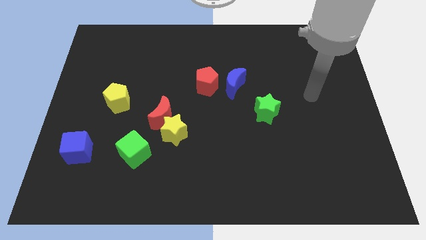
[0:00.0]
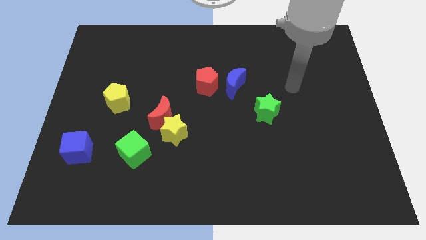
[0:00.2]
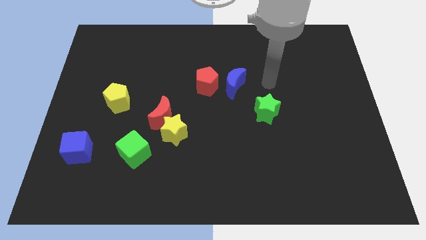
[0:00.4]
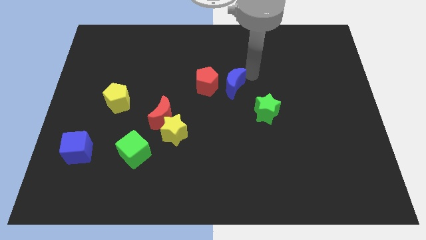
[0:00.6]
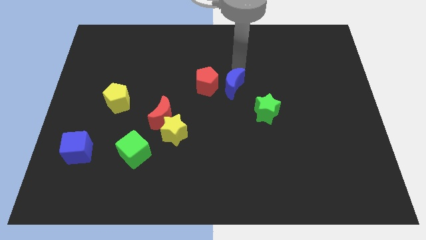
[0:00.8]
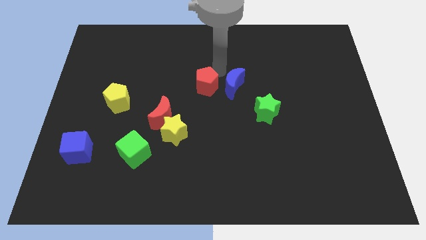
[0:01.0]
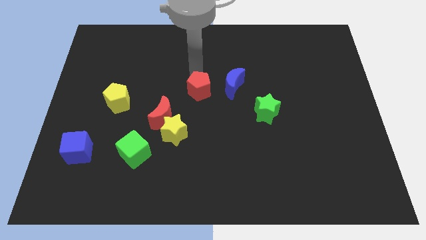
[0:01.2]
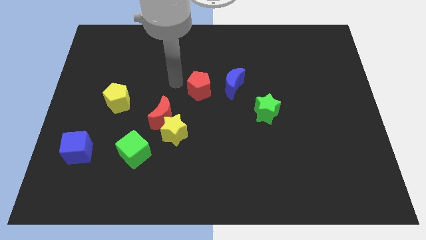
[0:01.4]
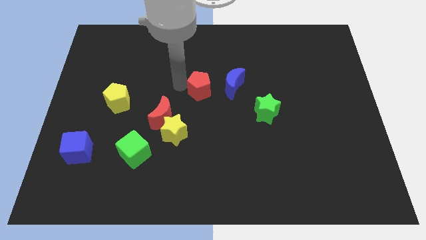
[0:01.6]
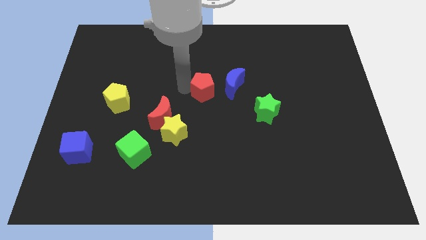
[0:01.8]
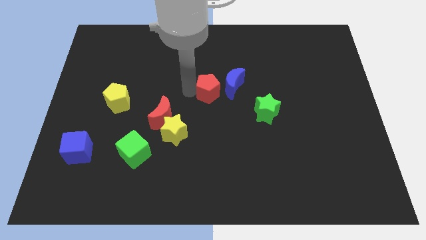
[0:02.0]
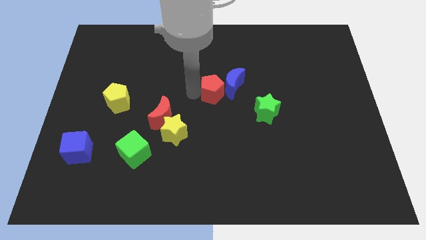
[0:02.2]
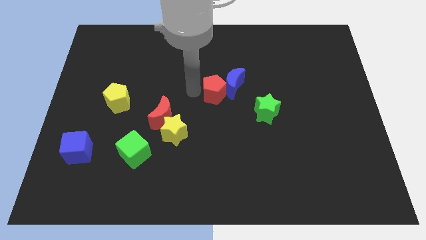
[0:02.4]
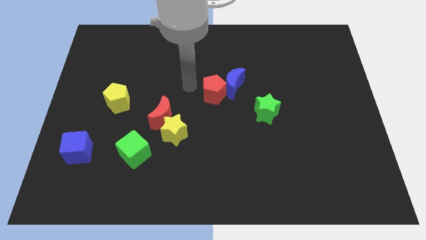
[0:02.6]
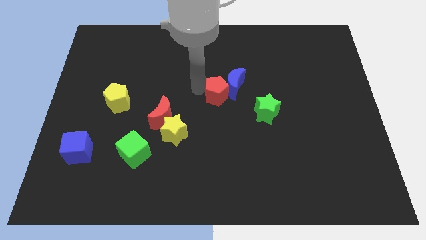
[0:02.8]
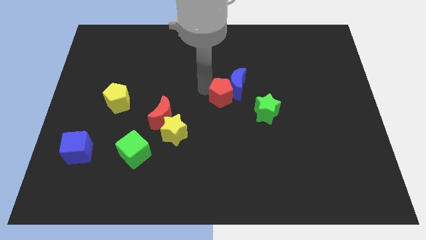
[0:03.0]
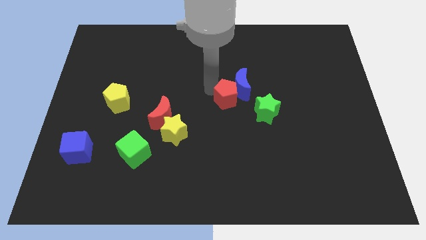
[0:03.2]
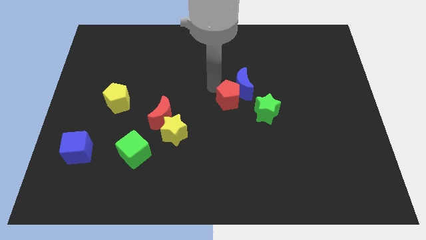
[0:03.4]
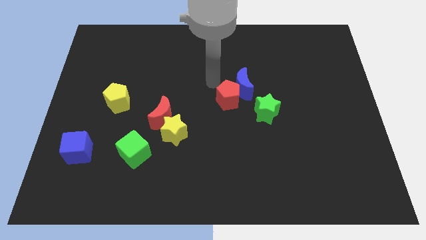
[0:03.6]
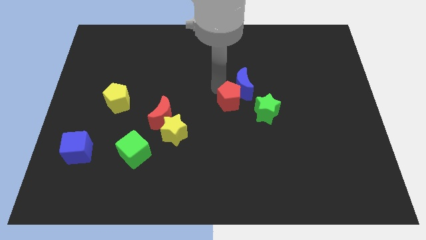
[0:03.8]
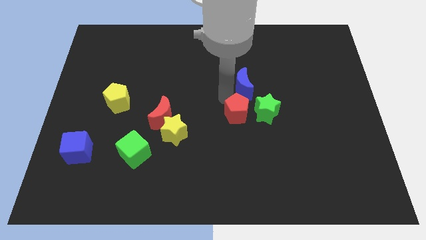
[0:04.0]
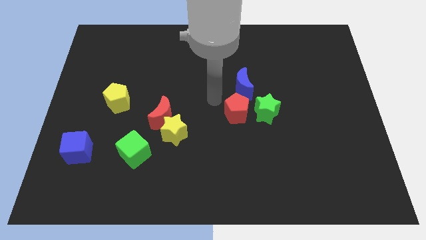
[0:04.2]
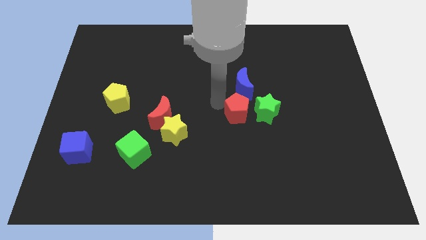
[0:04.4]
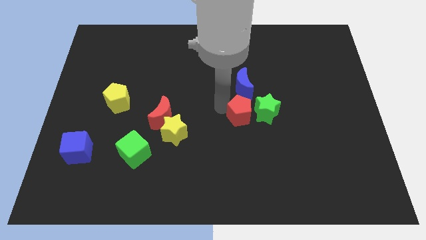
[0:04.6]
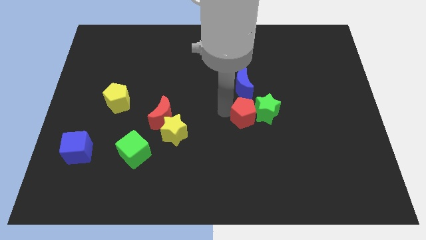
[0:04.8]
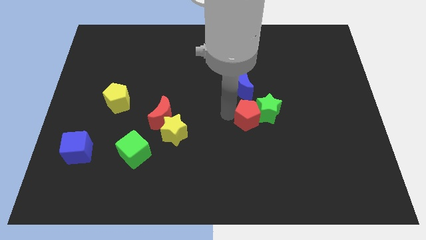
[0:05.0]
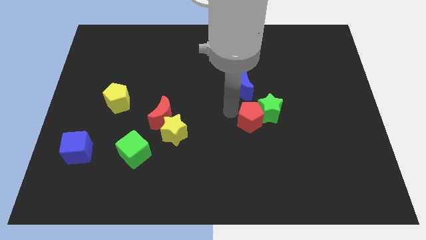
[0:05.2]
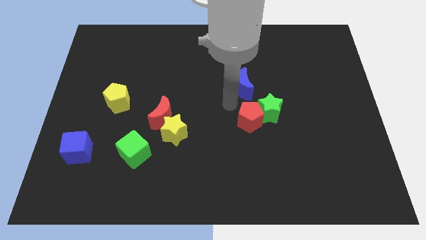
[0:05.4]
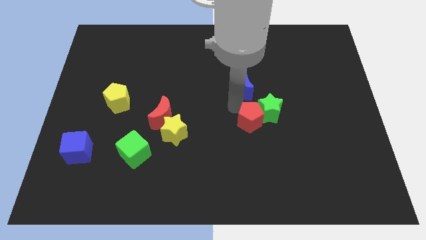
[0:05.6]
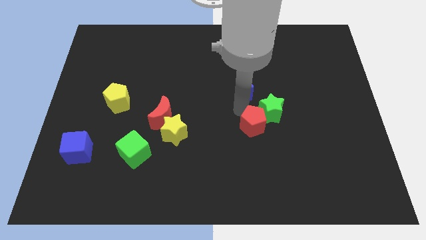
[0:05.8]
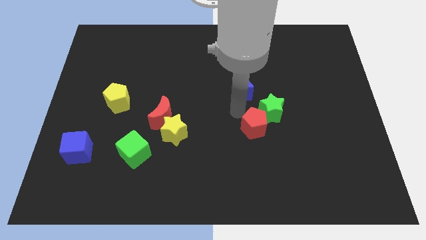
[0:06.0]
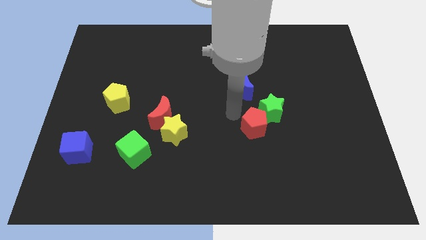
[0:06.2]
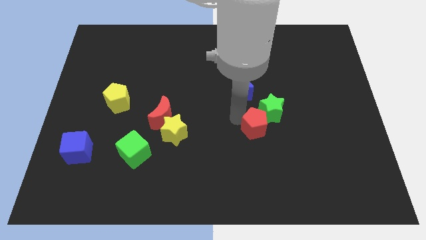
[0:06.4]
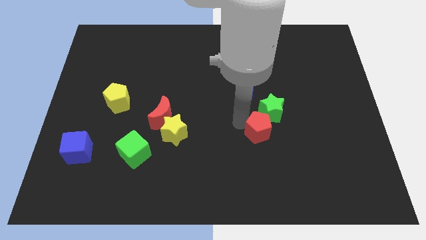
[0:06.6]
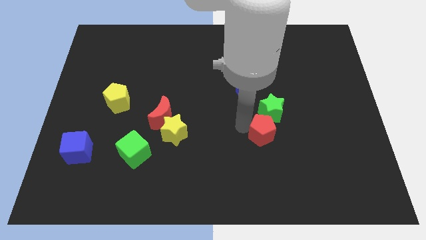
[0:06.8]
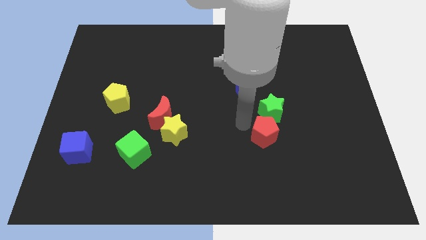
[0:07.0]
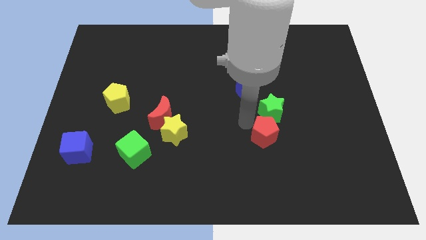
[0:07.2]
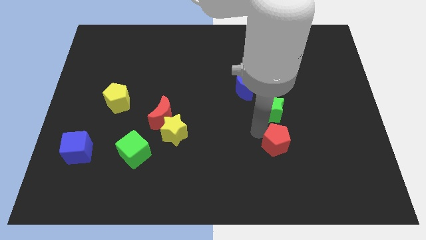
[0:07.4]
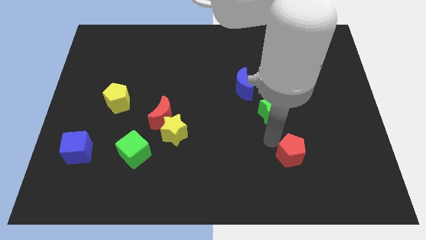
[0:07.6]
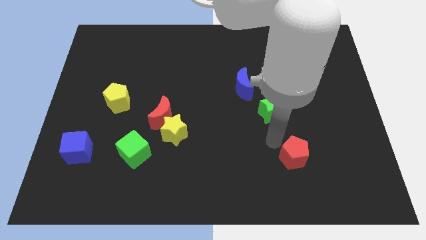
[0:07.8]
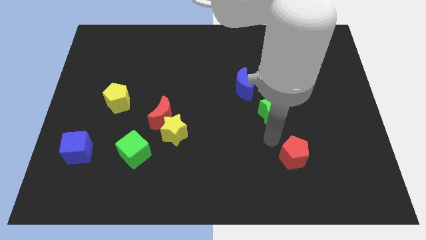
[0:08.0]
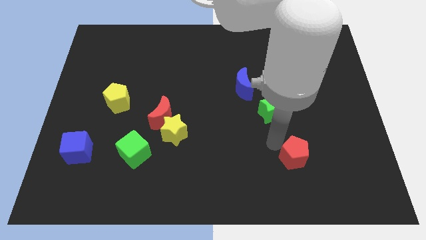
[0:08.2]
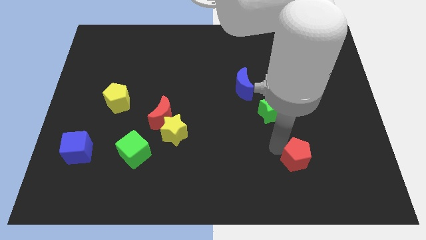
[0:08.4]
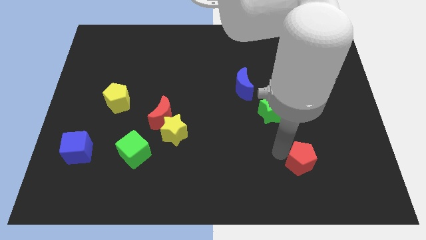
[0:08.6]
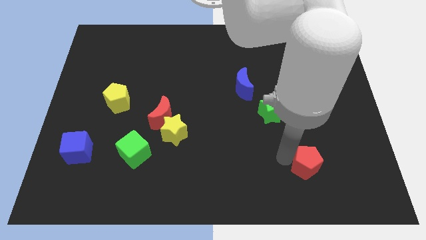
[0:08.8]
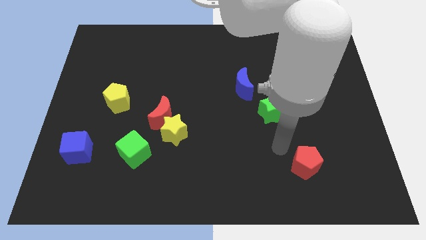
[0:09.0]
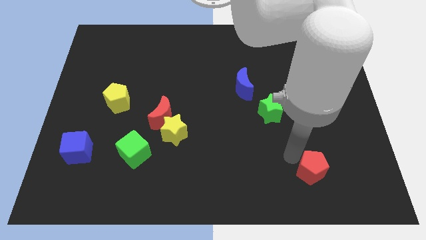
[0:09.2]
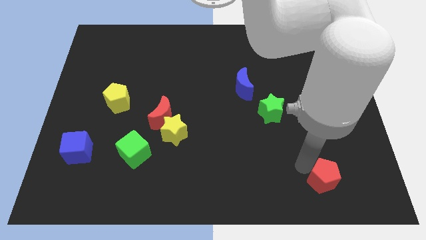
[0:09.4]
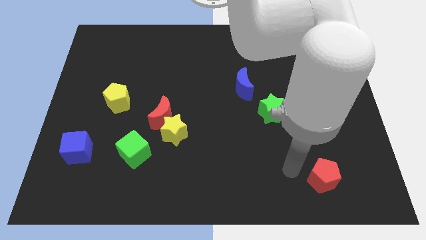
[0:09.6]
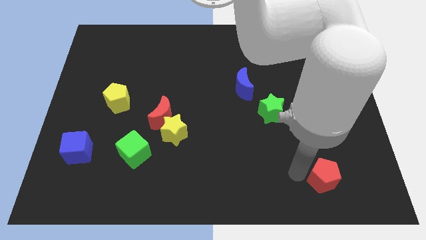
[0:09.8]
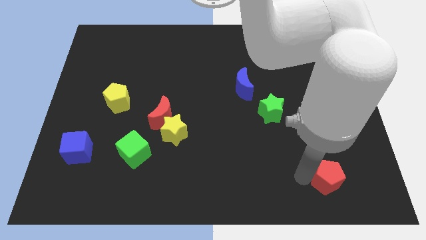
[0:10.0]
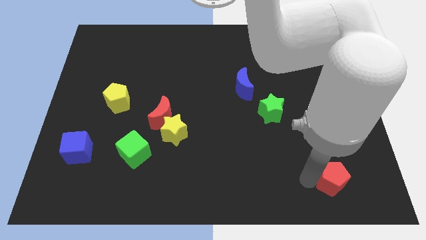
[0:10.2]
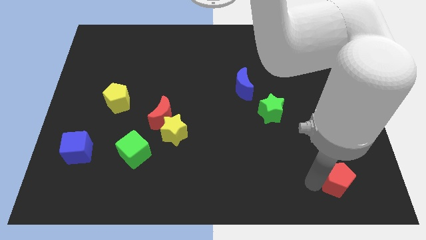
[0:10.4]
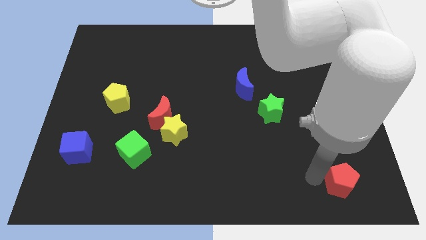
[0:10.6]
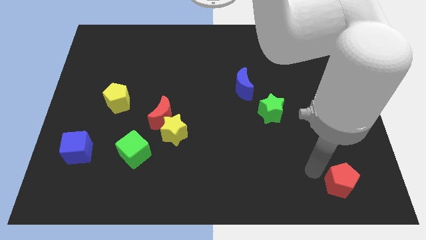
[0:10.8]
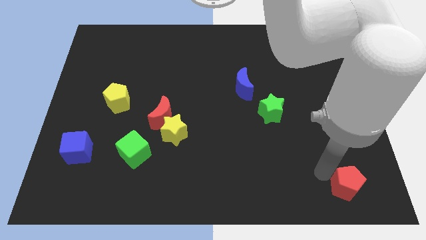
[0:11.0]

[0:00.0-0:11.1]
move the red pentagon to the bottom right

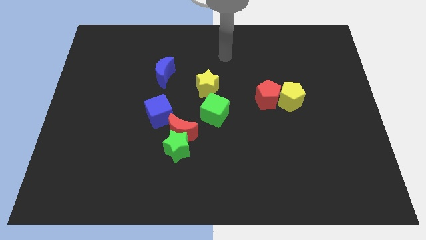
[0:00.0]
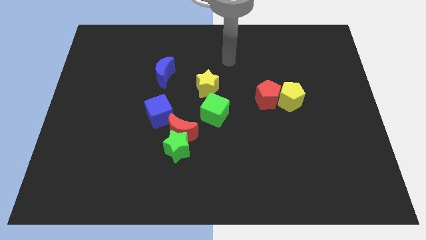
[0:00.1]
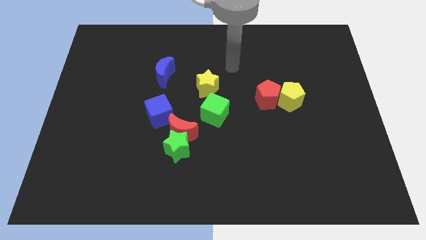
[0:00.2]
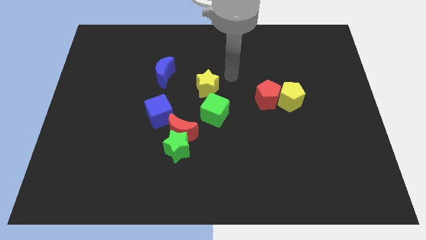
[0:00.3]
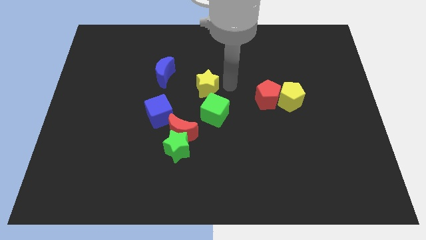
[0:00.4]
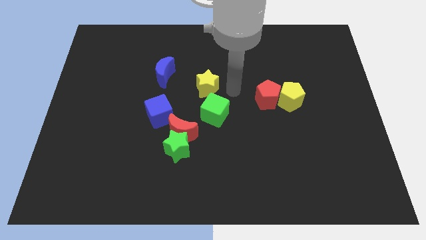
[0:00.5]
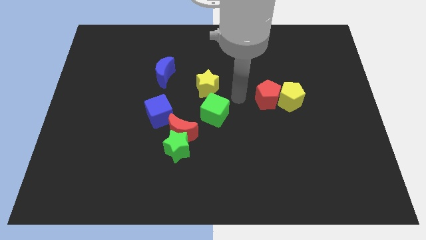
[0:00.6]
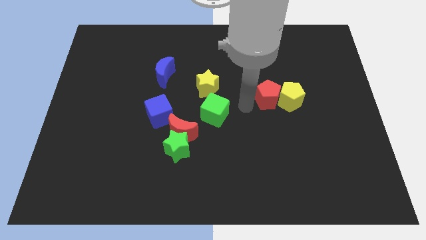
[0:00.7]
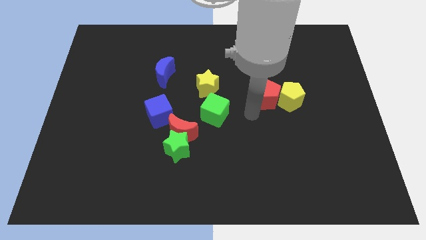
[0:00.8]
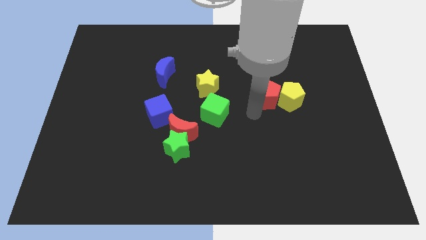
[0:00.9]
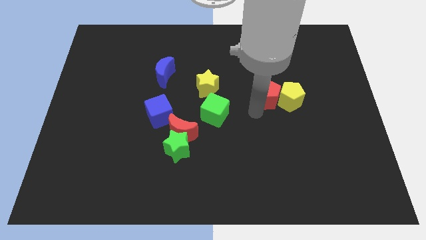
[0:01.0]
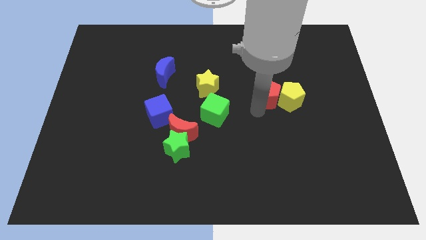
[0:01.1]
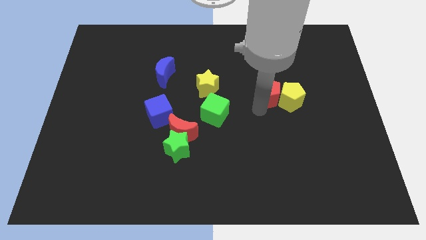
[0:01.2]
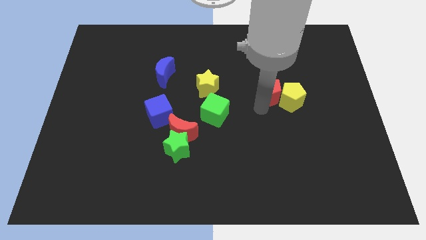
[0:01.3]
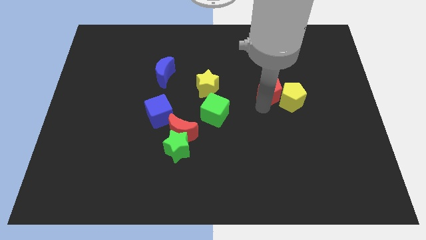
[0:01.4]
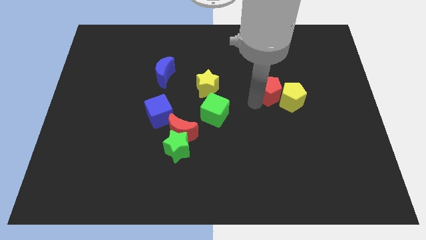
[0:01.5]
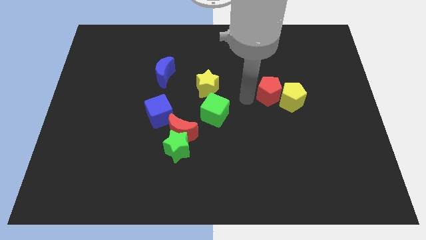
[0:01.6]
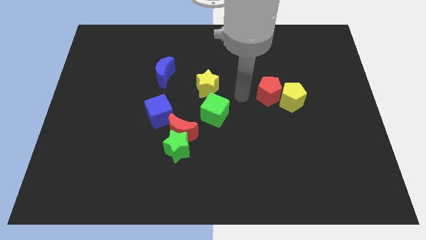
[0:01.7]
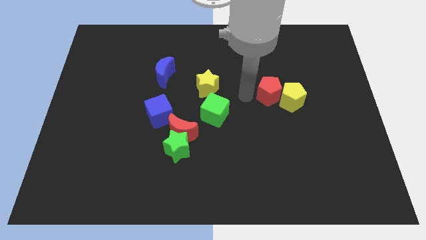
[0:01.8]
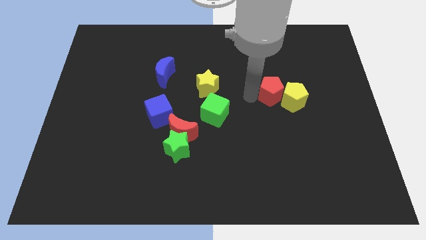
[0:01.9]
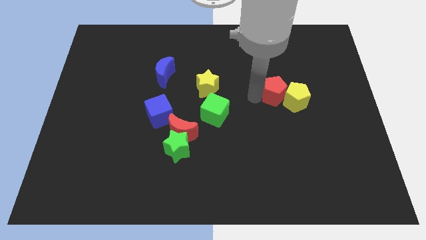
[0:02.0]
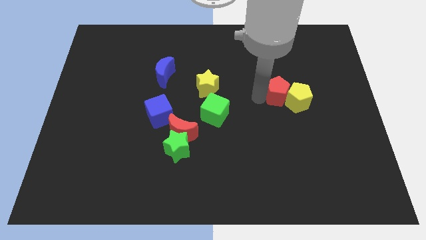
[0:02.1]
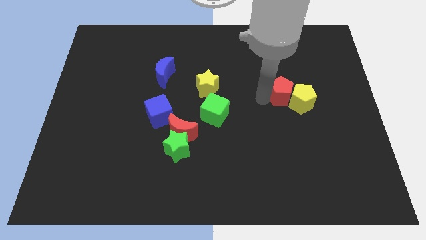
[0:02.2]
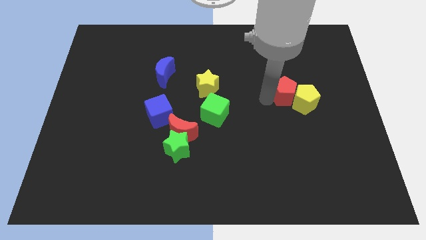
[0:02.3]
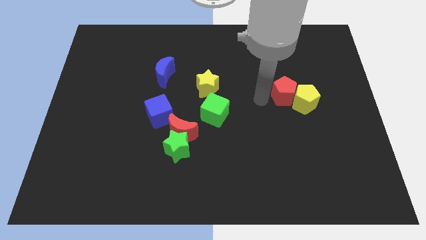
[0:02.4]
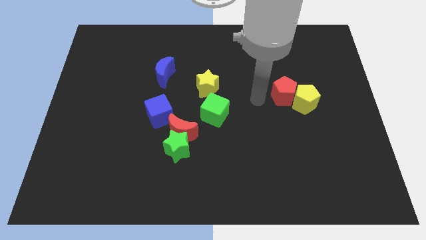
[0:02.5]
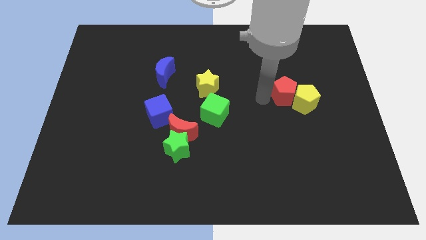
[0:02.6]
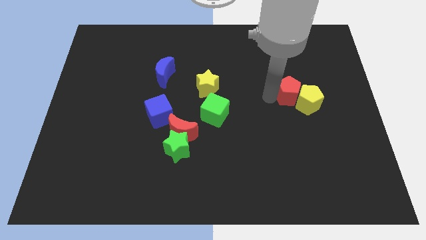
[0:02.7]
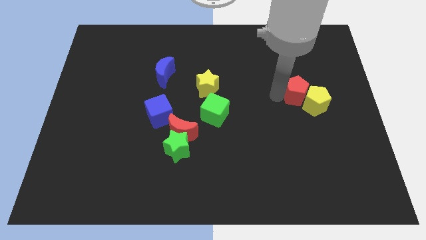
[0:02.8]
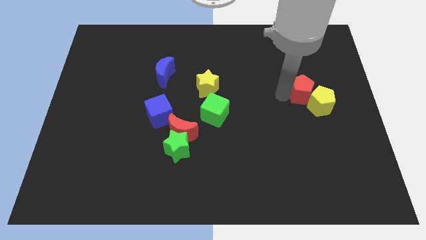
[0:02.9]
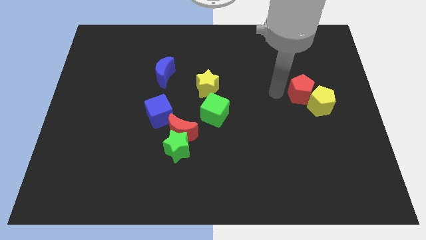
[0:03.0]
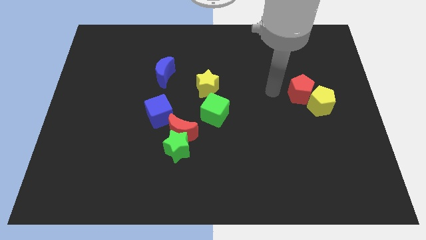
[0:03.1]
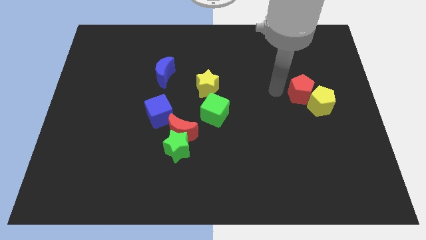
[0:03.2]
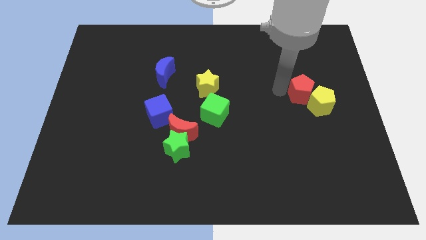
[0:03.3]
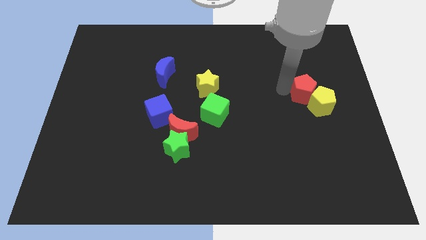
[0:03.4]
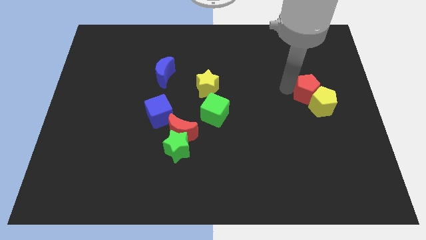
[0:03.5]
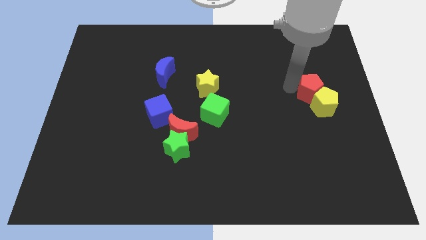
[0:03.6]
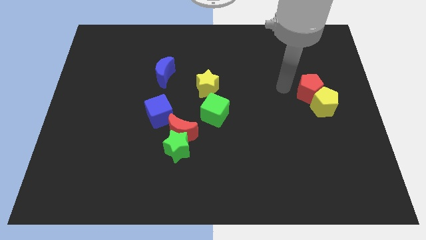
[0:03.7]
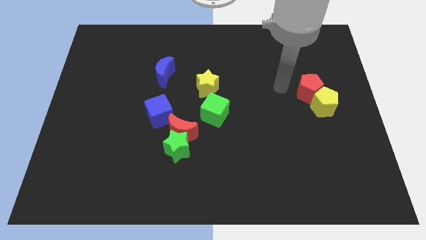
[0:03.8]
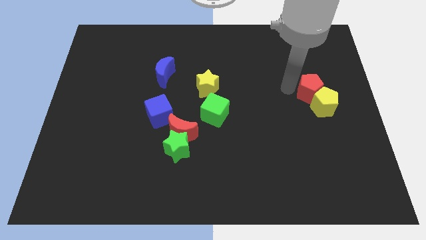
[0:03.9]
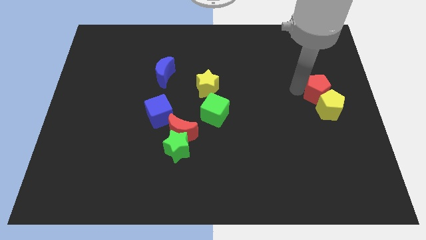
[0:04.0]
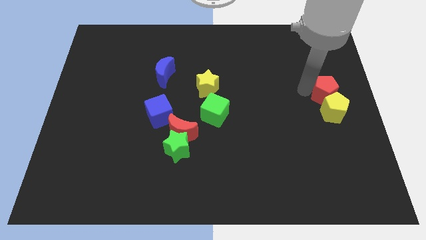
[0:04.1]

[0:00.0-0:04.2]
put the red pentagon to the center right
